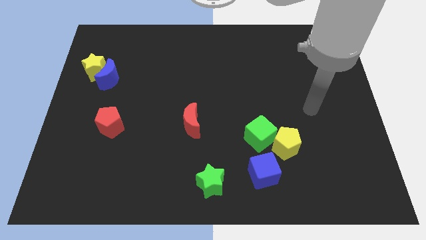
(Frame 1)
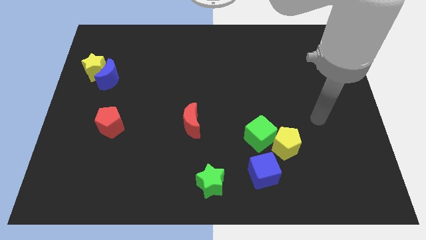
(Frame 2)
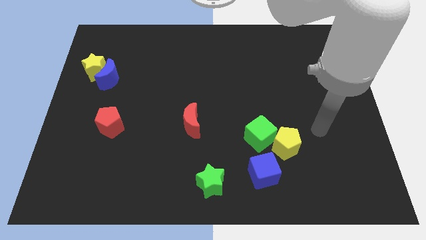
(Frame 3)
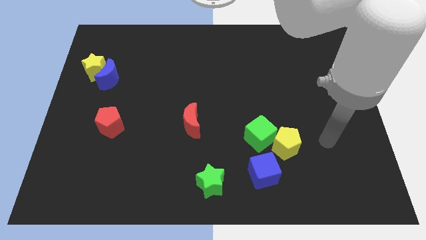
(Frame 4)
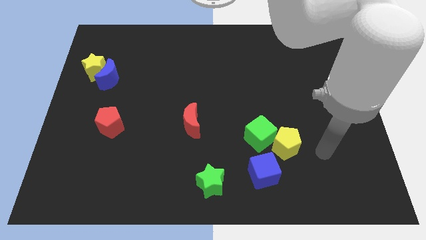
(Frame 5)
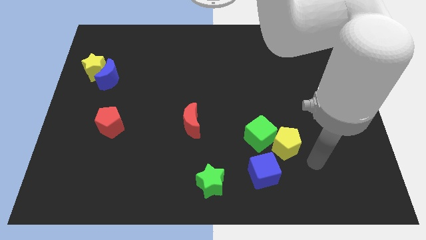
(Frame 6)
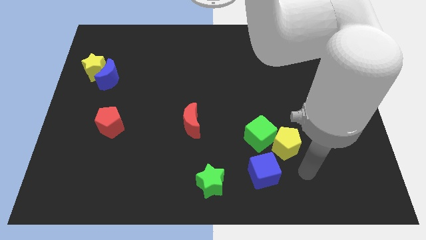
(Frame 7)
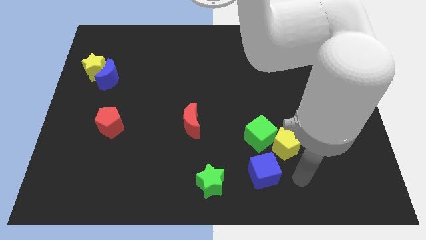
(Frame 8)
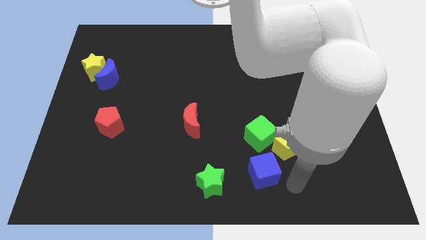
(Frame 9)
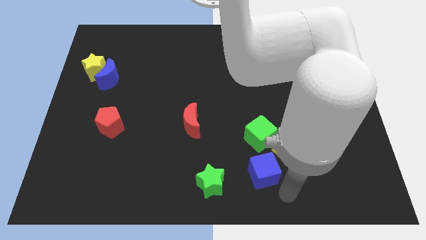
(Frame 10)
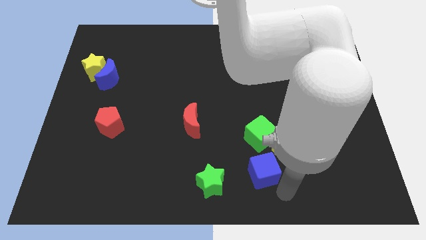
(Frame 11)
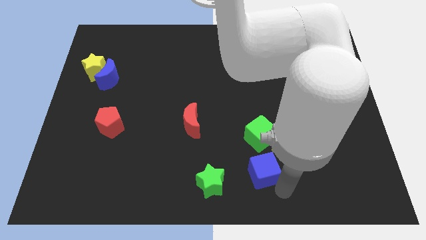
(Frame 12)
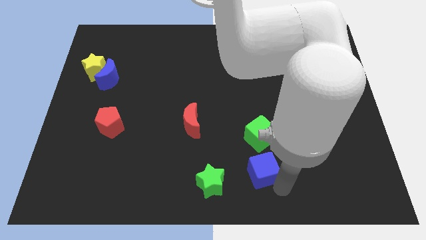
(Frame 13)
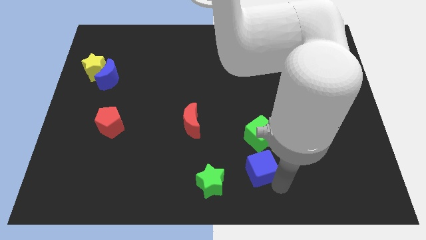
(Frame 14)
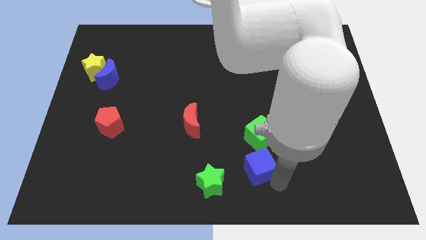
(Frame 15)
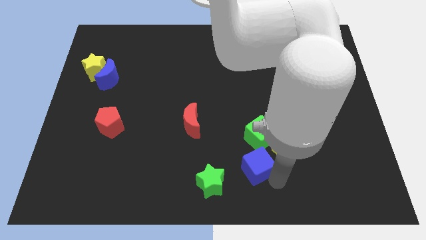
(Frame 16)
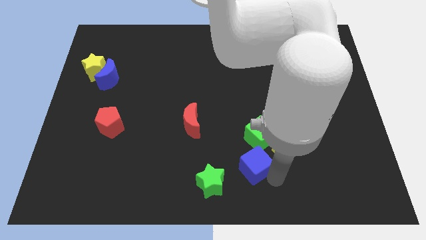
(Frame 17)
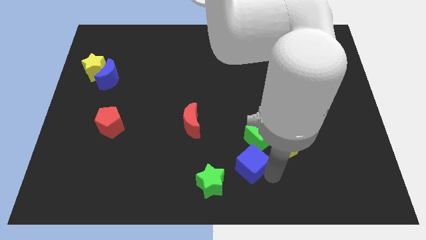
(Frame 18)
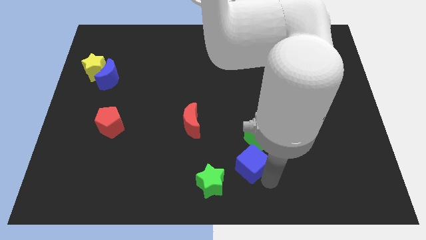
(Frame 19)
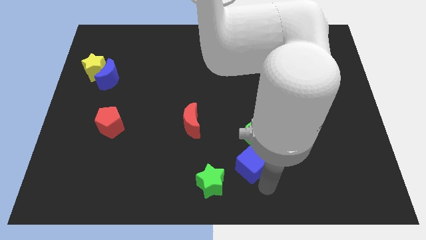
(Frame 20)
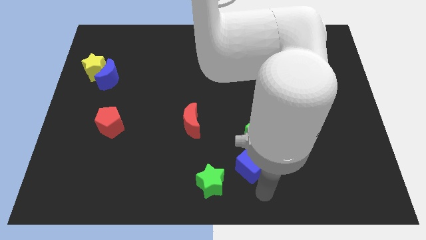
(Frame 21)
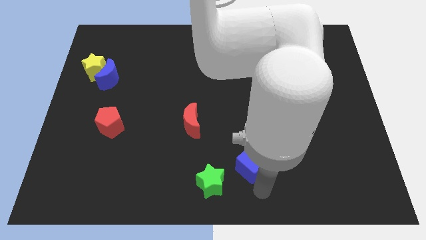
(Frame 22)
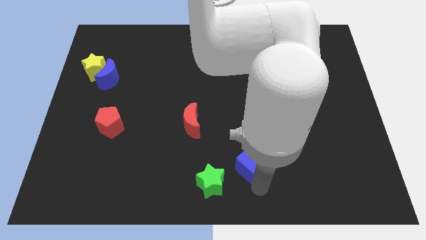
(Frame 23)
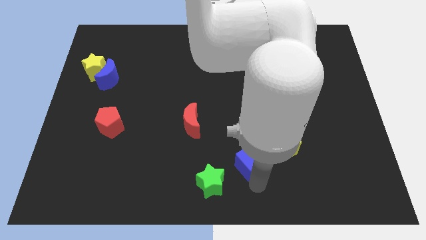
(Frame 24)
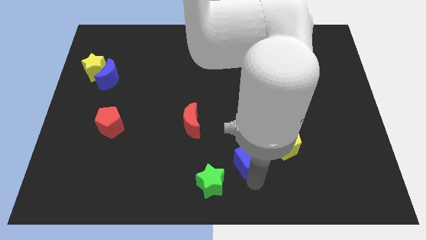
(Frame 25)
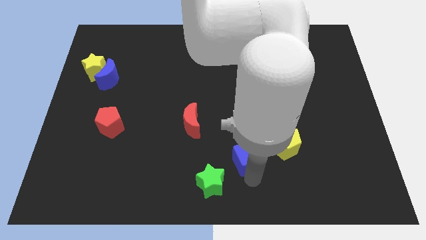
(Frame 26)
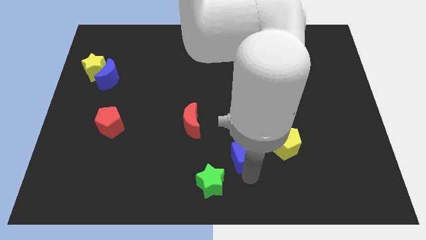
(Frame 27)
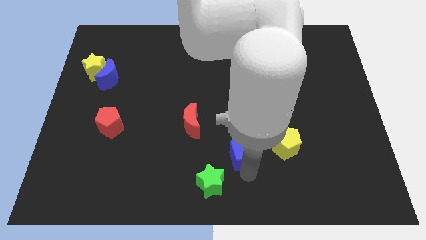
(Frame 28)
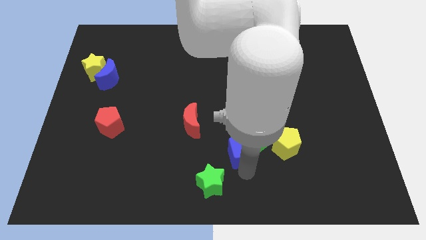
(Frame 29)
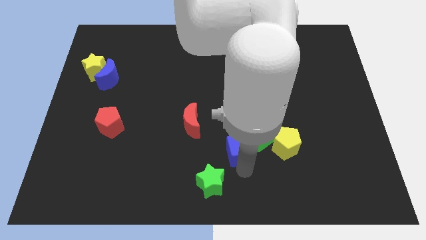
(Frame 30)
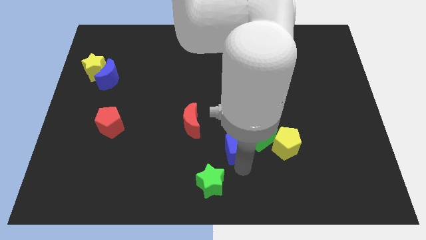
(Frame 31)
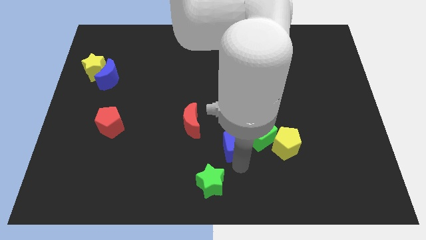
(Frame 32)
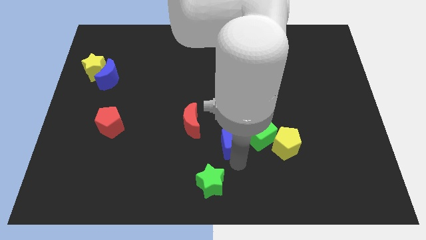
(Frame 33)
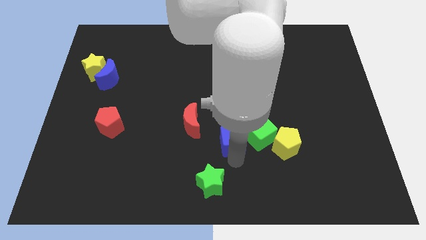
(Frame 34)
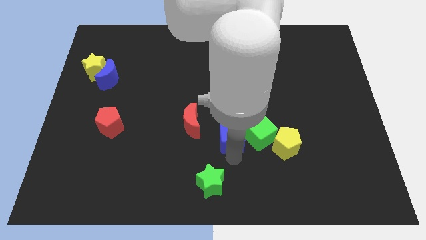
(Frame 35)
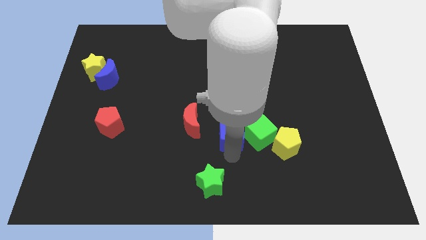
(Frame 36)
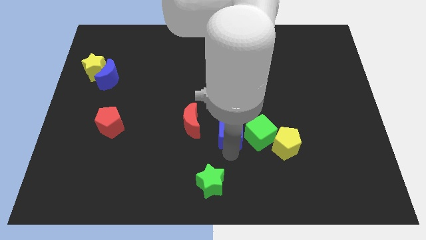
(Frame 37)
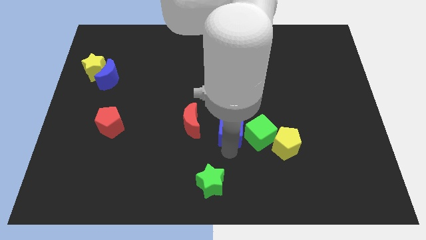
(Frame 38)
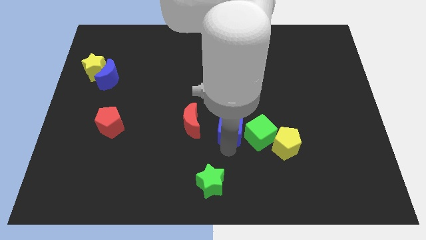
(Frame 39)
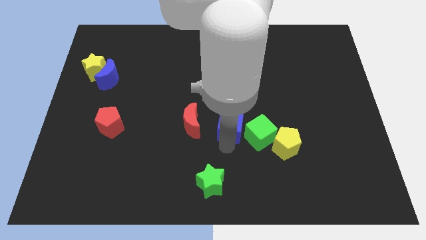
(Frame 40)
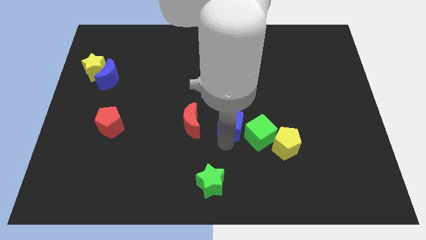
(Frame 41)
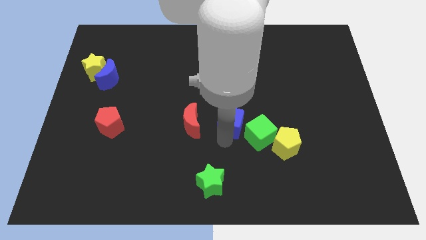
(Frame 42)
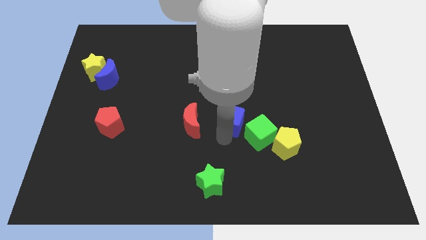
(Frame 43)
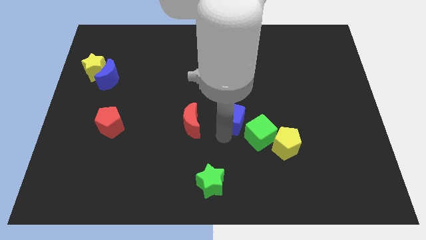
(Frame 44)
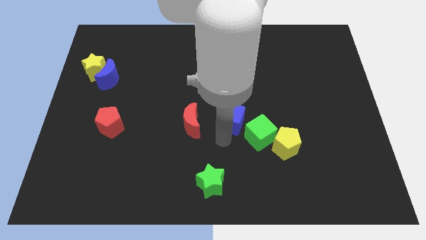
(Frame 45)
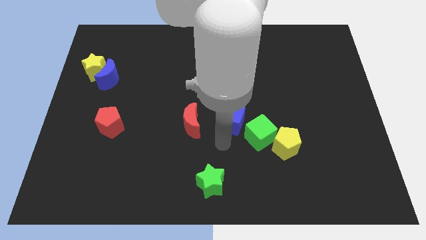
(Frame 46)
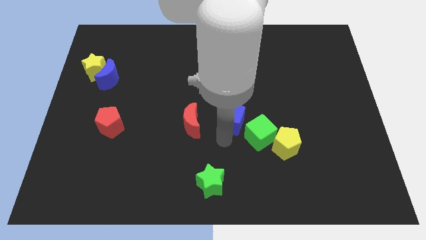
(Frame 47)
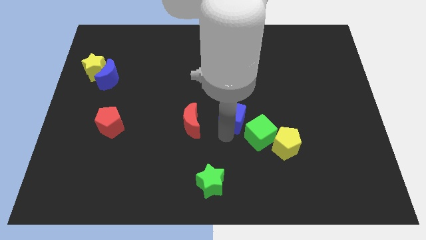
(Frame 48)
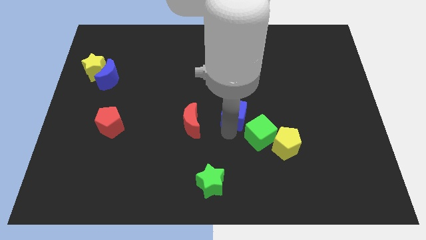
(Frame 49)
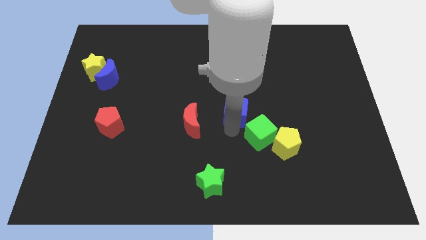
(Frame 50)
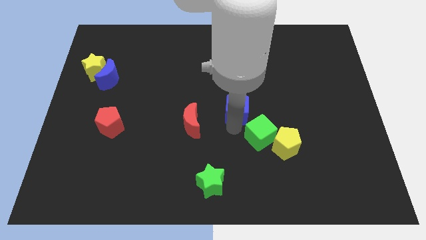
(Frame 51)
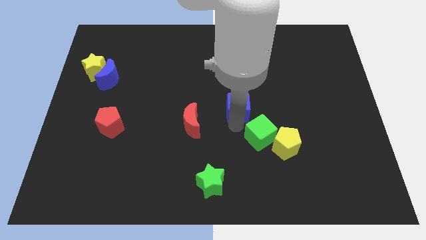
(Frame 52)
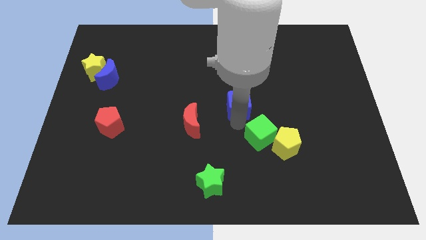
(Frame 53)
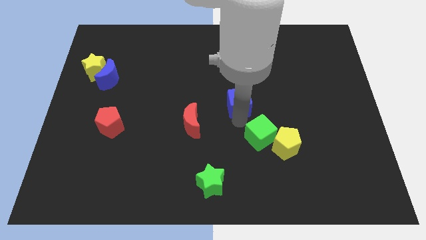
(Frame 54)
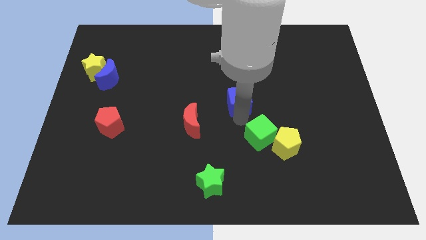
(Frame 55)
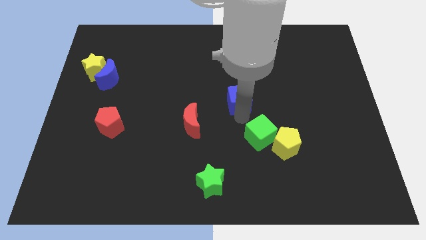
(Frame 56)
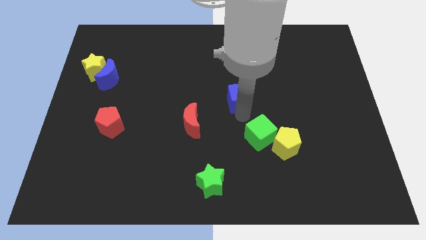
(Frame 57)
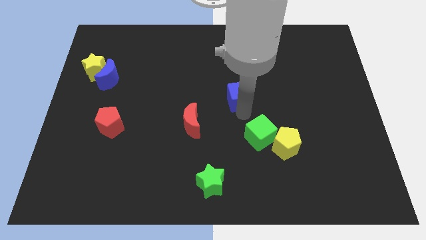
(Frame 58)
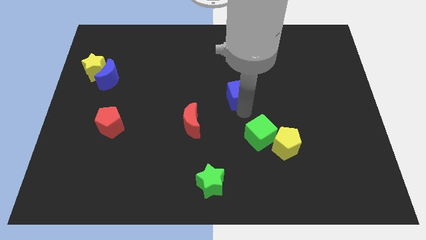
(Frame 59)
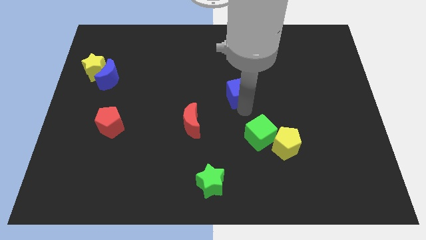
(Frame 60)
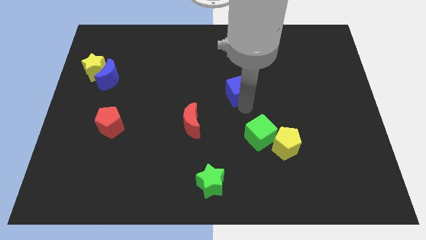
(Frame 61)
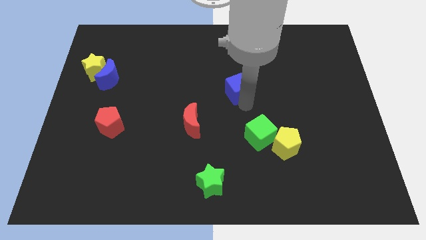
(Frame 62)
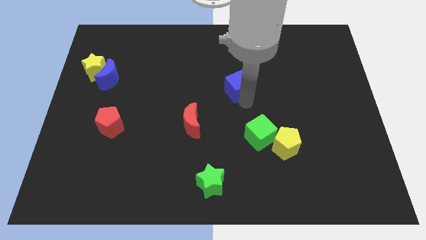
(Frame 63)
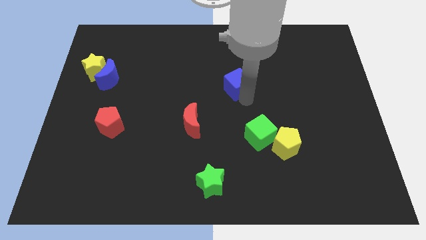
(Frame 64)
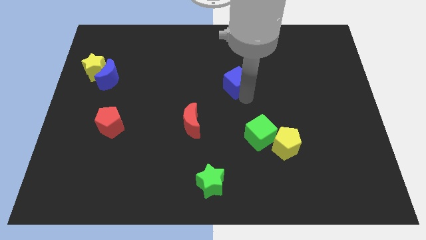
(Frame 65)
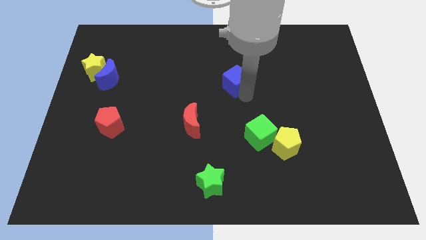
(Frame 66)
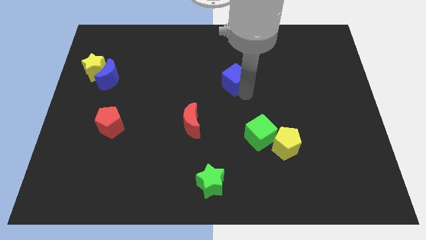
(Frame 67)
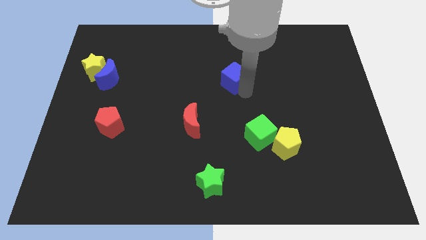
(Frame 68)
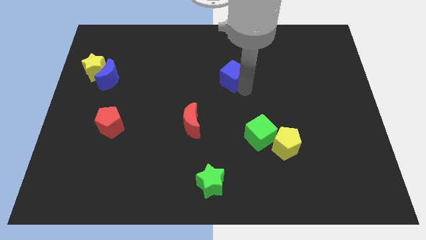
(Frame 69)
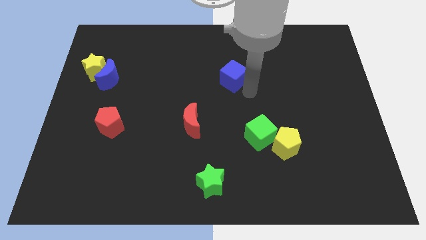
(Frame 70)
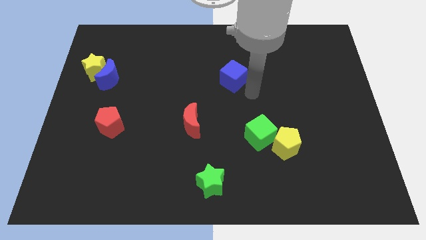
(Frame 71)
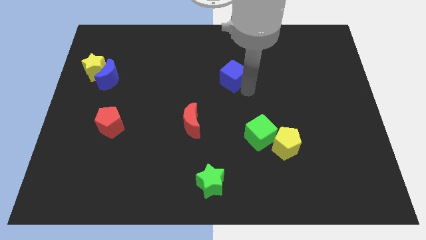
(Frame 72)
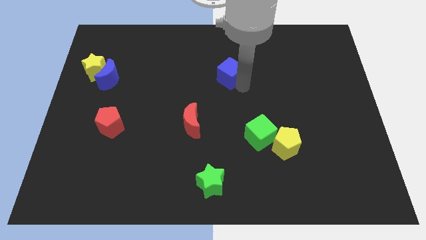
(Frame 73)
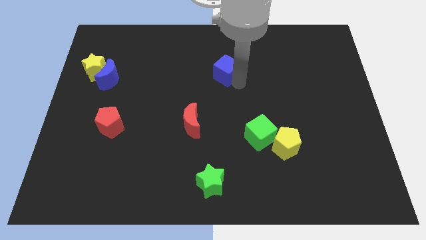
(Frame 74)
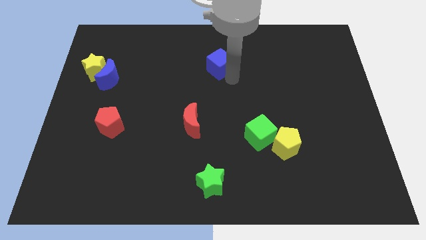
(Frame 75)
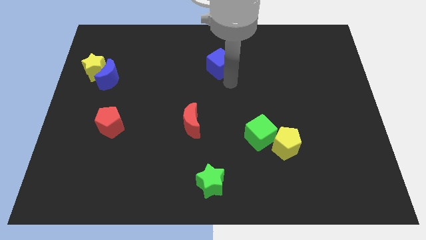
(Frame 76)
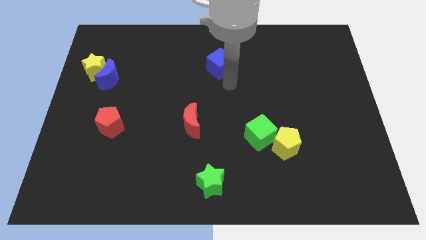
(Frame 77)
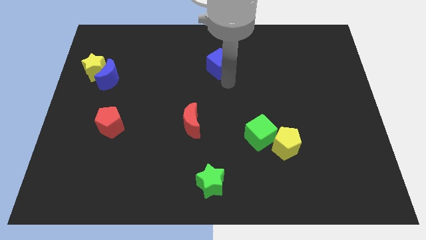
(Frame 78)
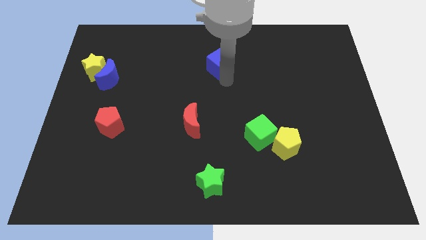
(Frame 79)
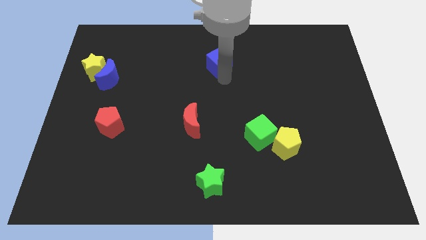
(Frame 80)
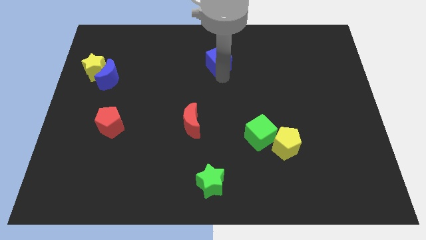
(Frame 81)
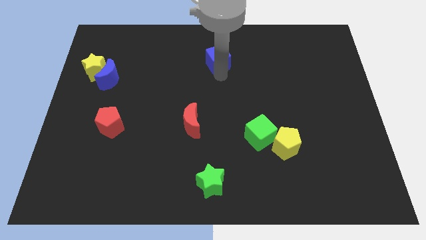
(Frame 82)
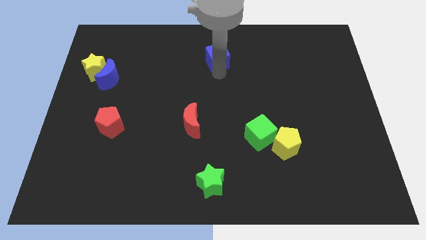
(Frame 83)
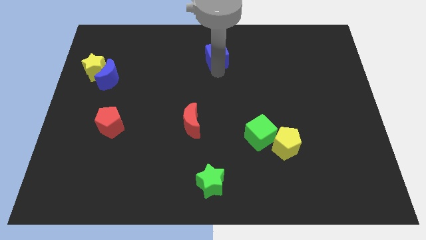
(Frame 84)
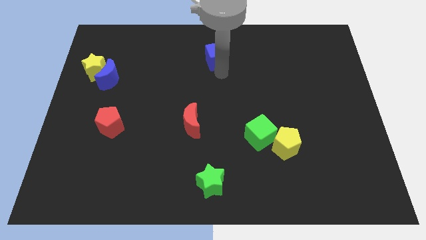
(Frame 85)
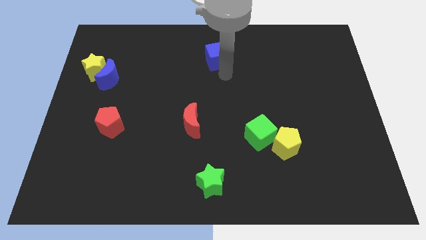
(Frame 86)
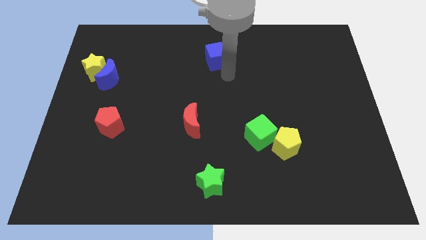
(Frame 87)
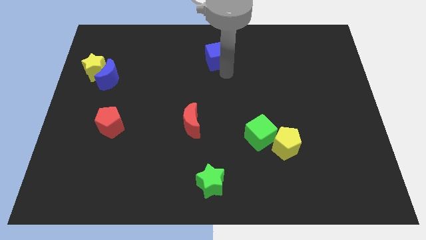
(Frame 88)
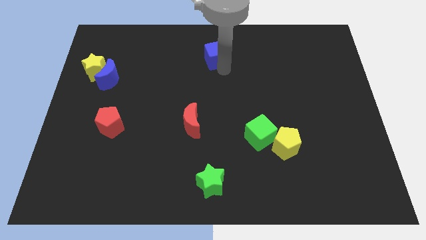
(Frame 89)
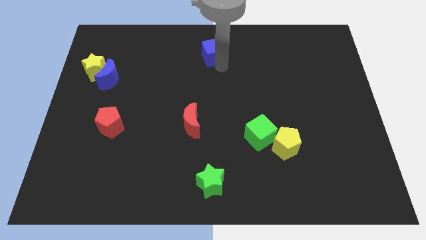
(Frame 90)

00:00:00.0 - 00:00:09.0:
put the blue cube to the top side
